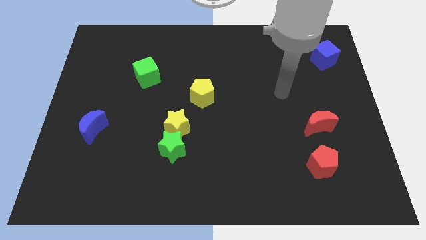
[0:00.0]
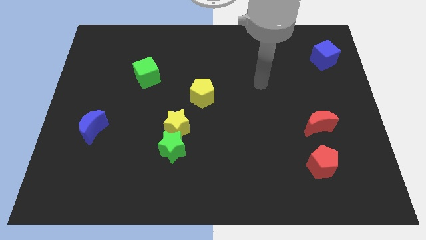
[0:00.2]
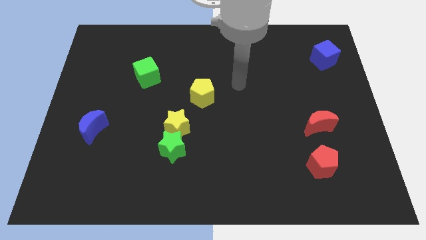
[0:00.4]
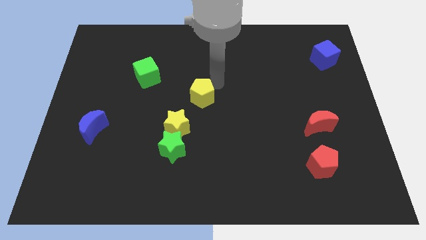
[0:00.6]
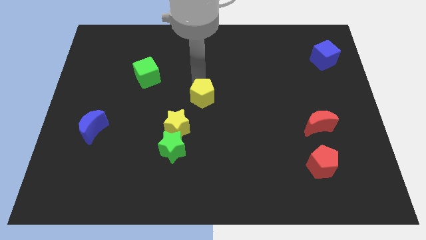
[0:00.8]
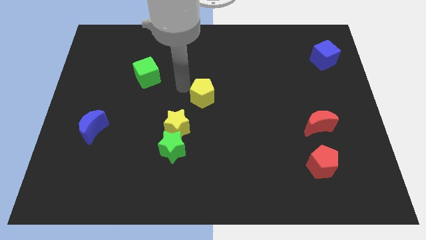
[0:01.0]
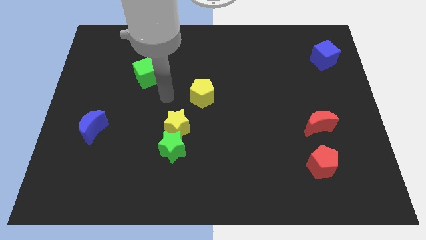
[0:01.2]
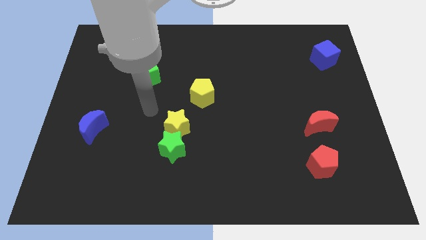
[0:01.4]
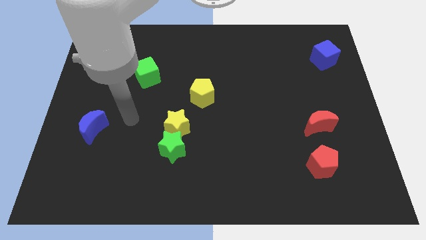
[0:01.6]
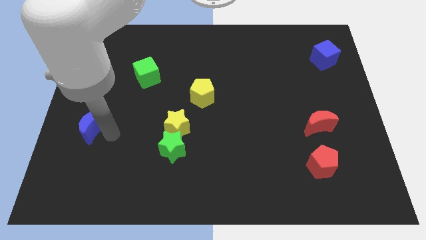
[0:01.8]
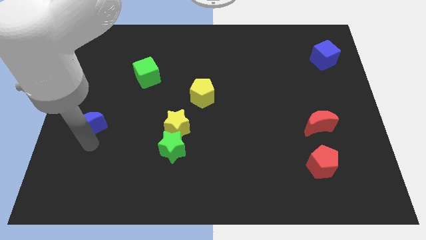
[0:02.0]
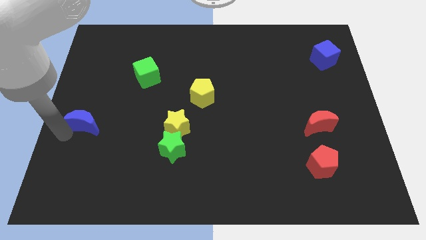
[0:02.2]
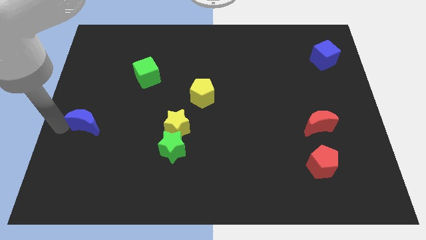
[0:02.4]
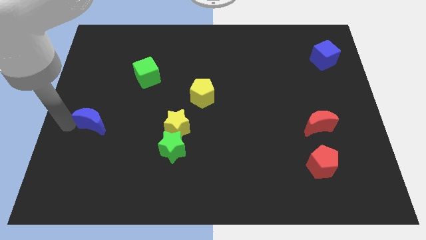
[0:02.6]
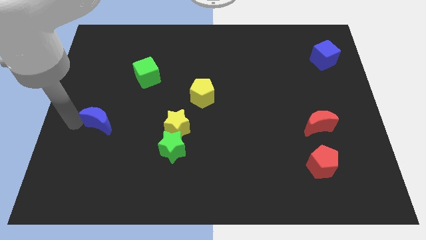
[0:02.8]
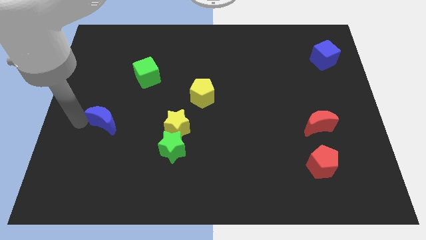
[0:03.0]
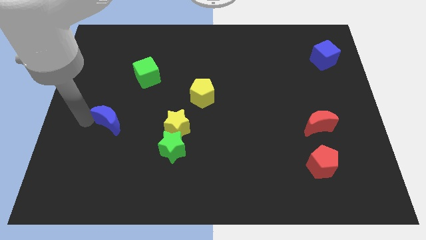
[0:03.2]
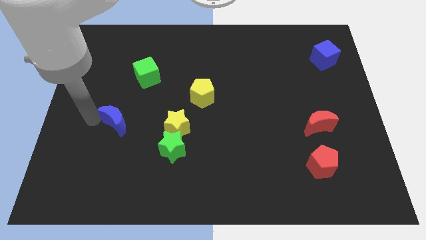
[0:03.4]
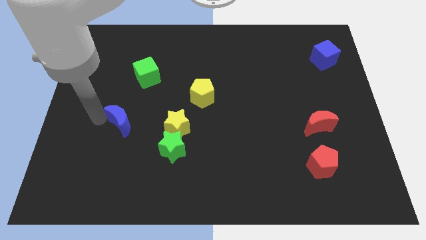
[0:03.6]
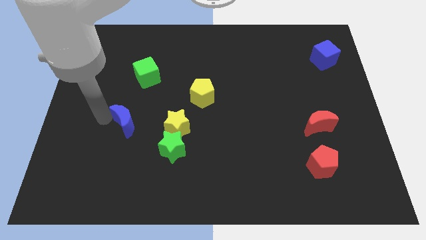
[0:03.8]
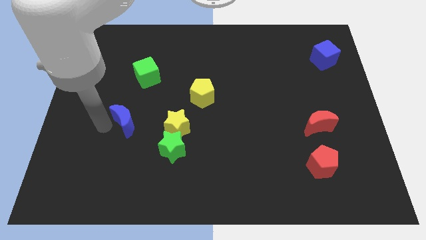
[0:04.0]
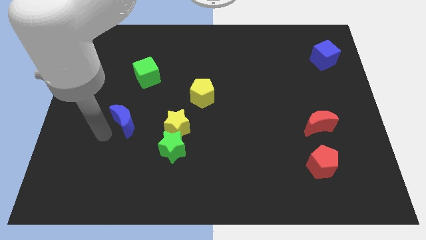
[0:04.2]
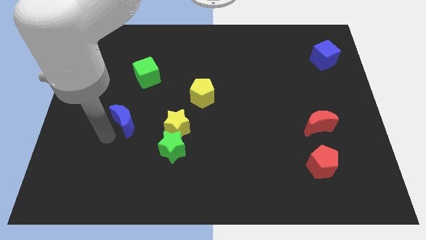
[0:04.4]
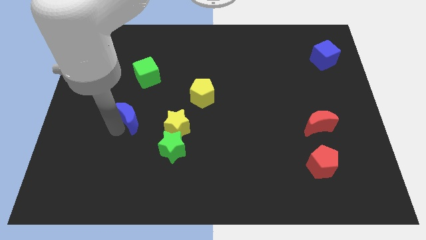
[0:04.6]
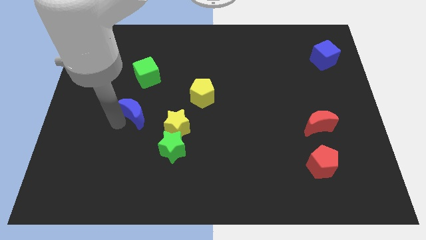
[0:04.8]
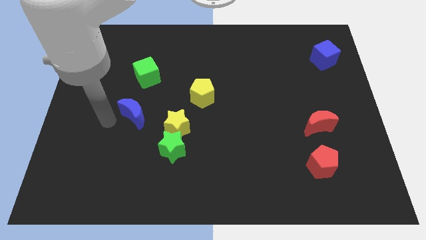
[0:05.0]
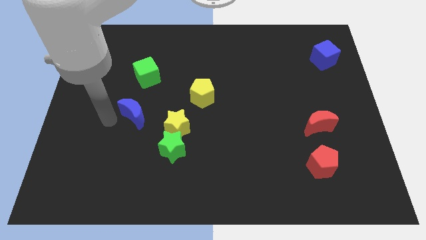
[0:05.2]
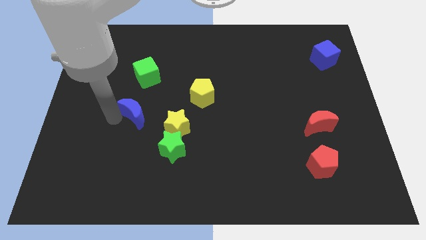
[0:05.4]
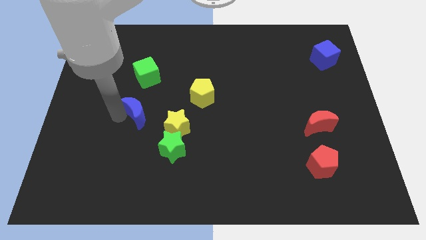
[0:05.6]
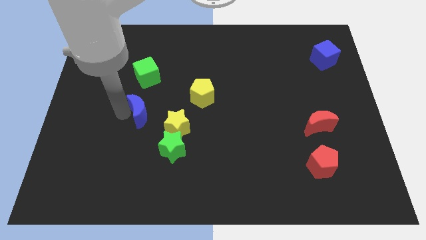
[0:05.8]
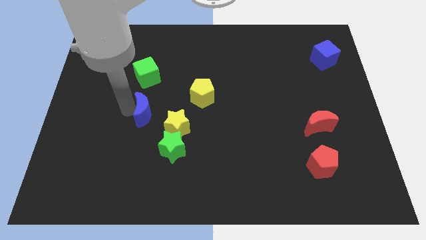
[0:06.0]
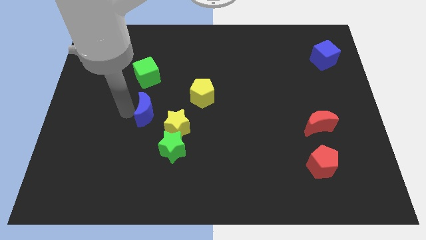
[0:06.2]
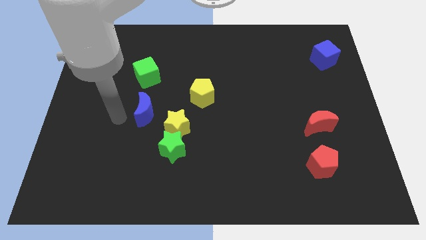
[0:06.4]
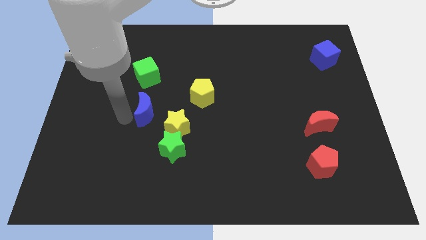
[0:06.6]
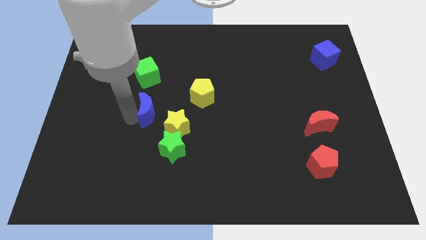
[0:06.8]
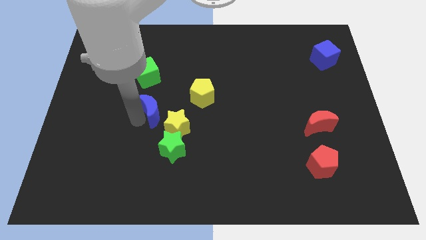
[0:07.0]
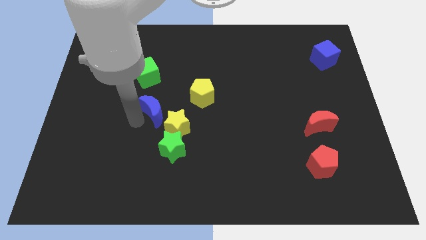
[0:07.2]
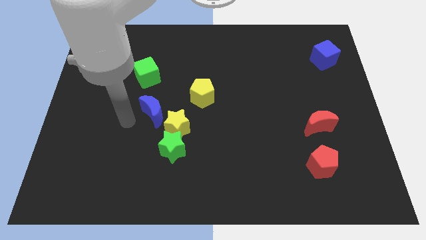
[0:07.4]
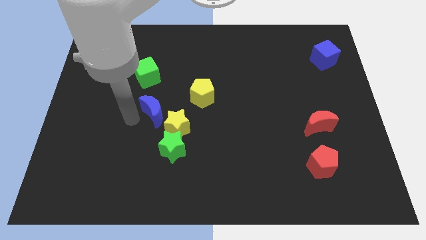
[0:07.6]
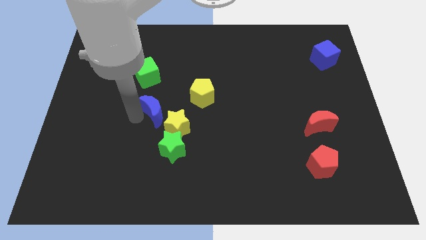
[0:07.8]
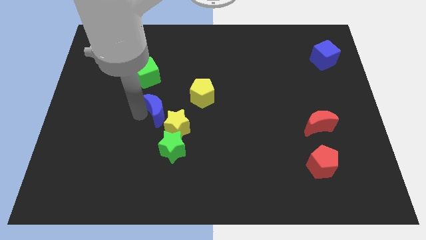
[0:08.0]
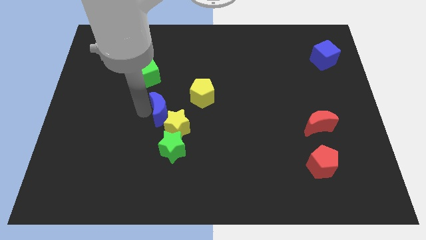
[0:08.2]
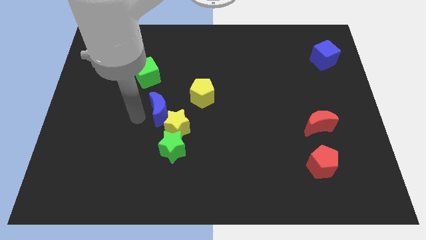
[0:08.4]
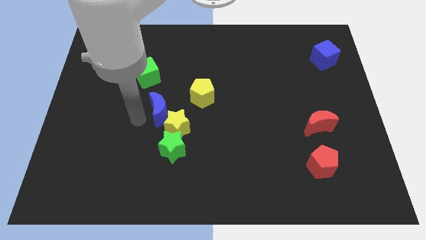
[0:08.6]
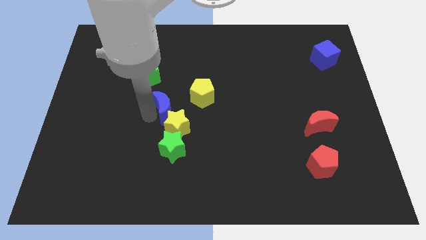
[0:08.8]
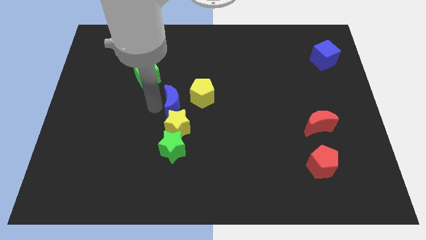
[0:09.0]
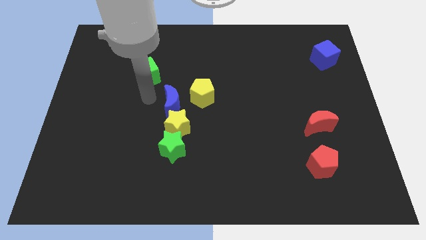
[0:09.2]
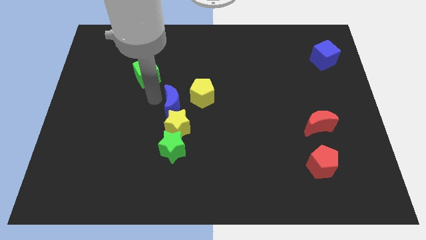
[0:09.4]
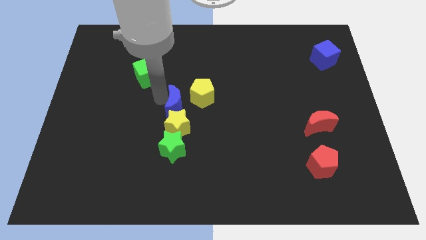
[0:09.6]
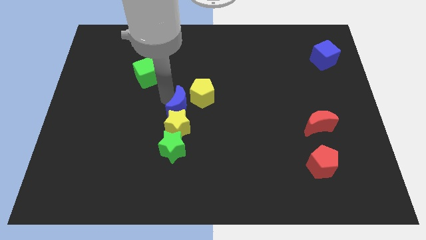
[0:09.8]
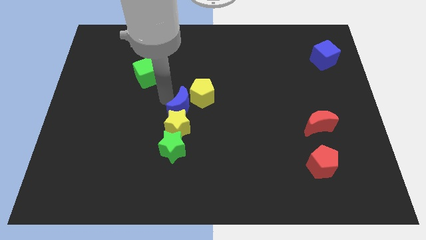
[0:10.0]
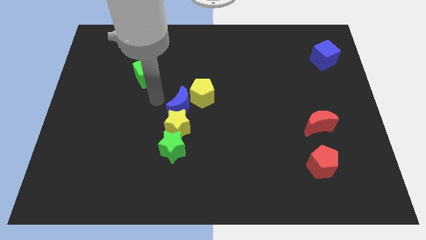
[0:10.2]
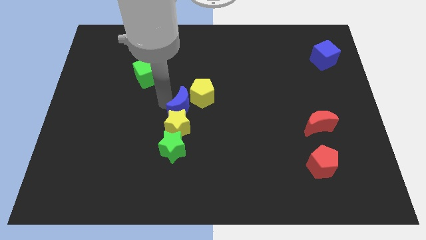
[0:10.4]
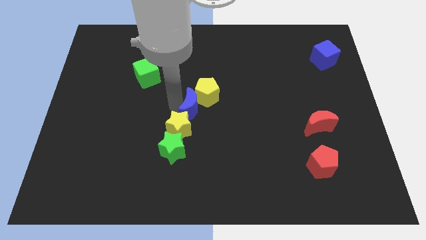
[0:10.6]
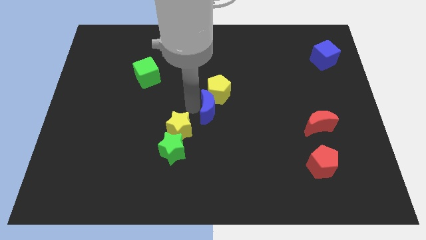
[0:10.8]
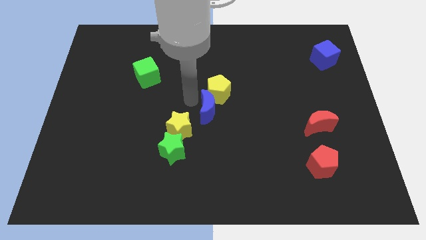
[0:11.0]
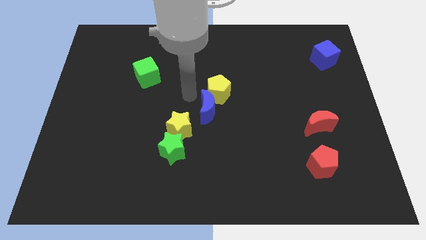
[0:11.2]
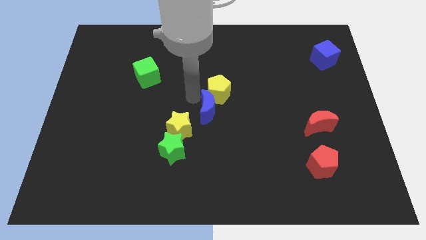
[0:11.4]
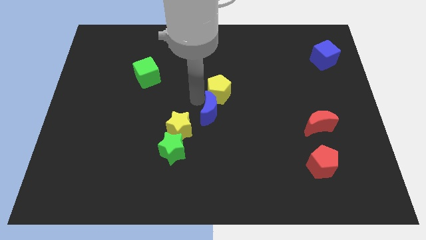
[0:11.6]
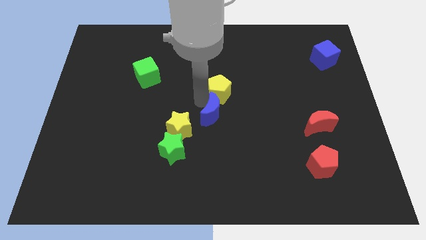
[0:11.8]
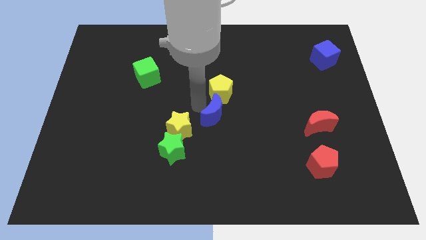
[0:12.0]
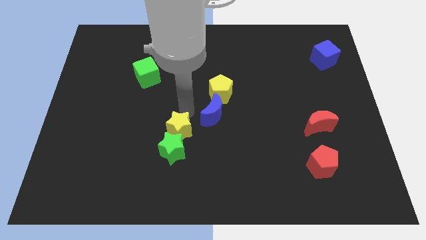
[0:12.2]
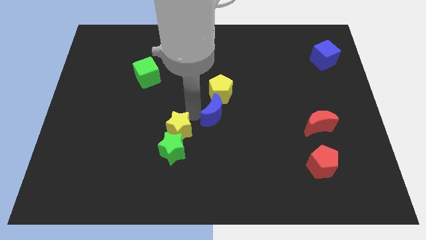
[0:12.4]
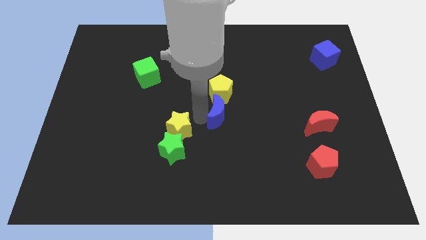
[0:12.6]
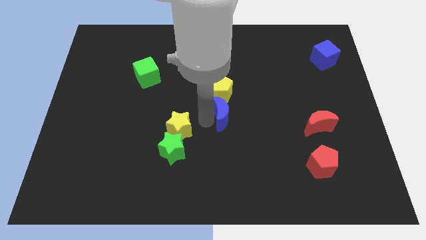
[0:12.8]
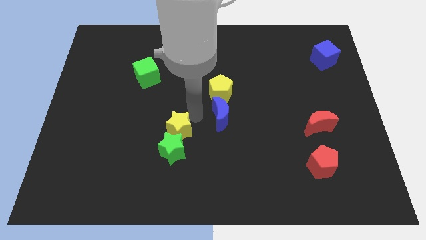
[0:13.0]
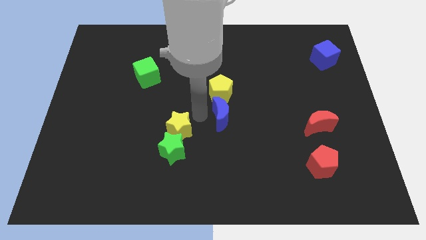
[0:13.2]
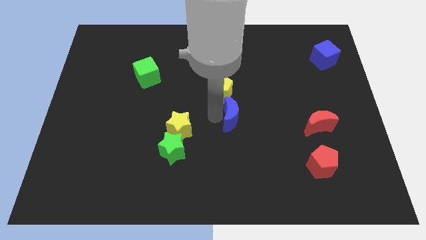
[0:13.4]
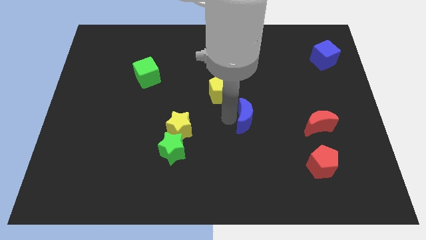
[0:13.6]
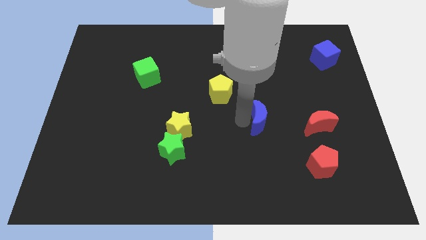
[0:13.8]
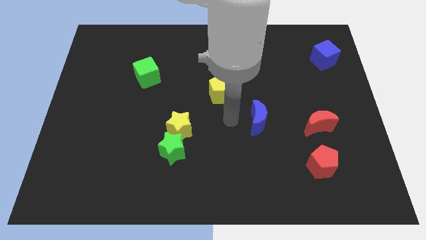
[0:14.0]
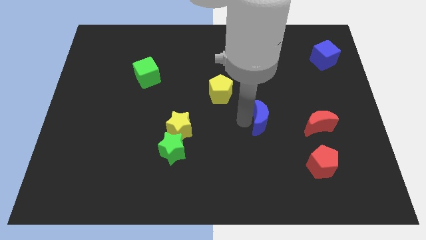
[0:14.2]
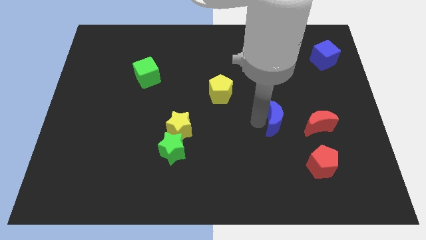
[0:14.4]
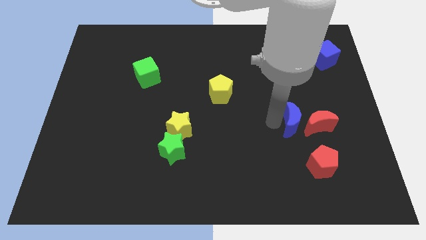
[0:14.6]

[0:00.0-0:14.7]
push the blue moon to the red moon
